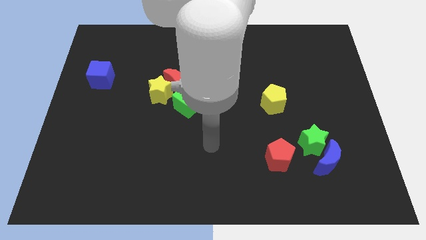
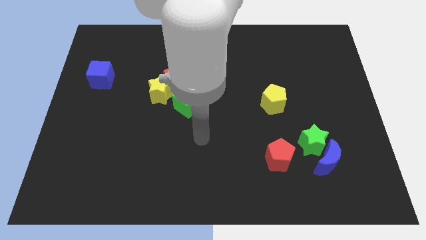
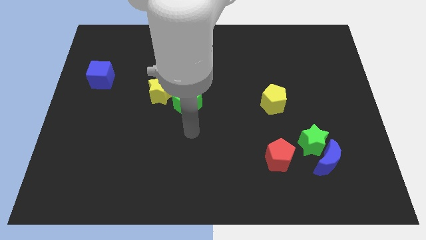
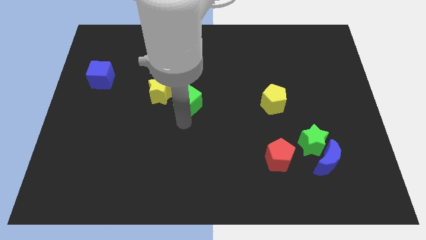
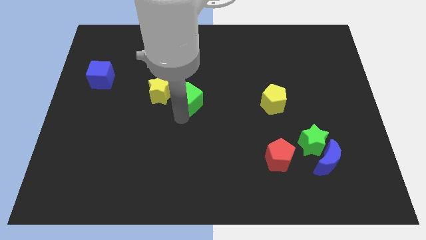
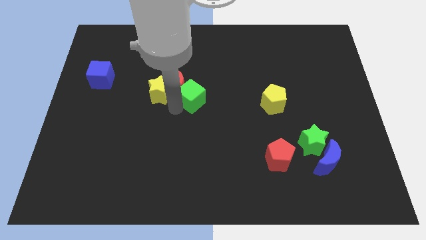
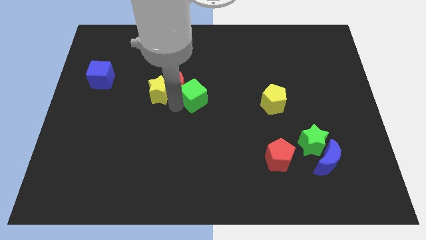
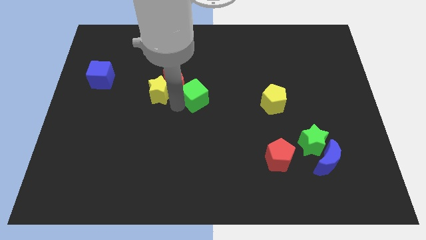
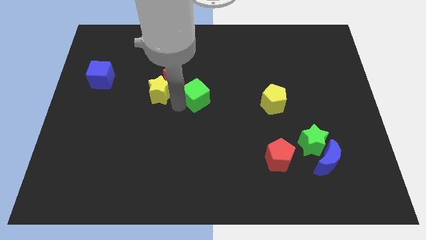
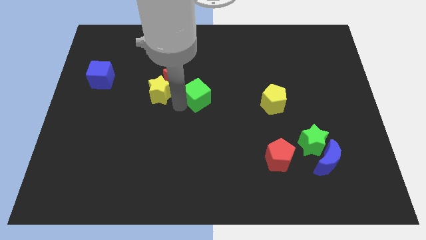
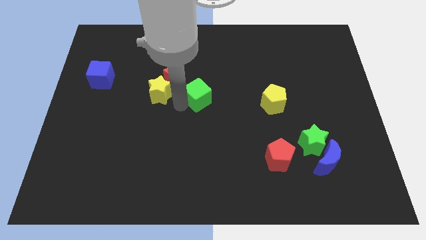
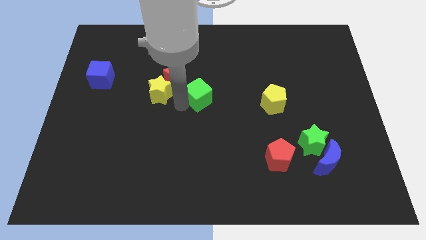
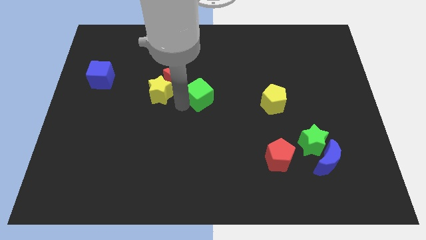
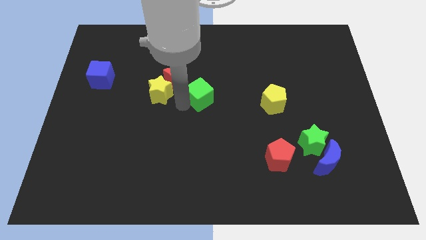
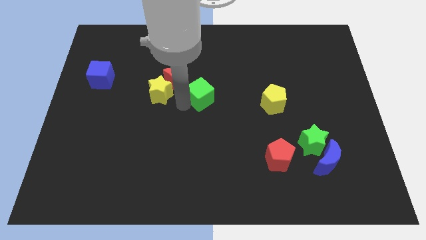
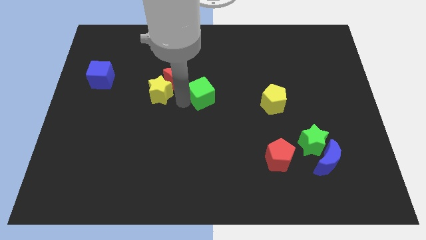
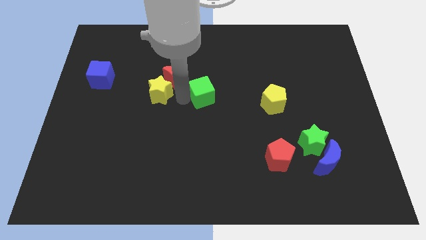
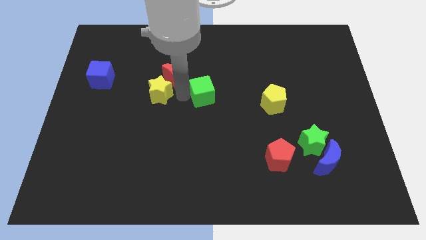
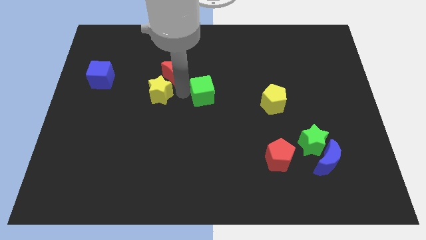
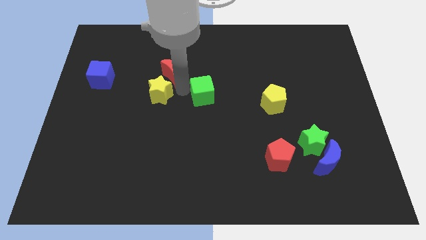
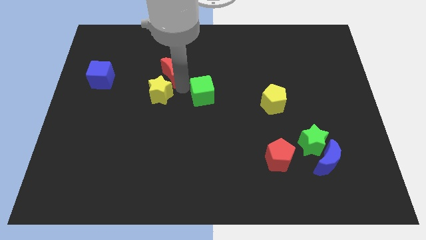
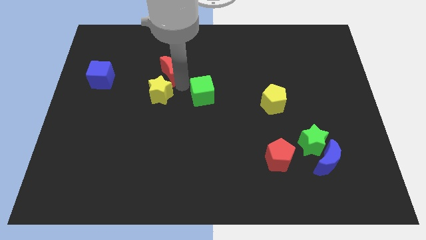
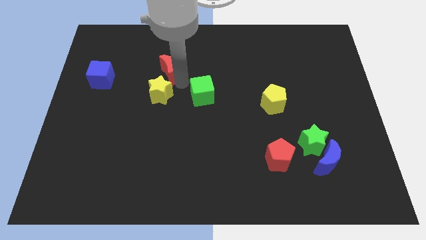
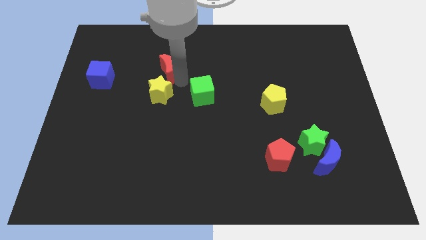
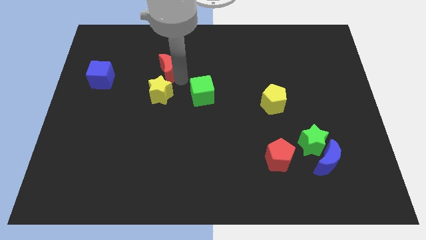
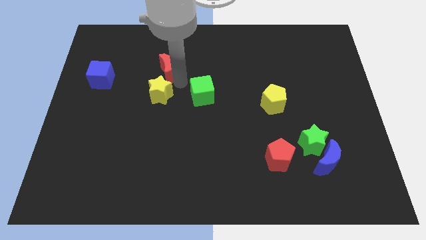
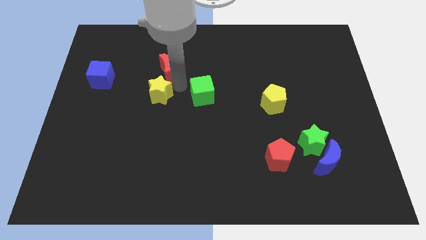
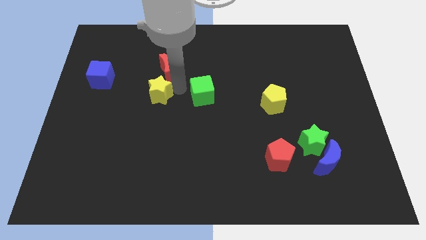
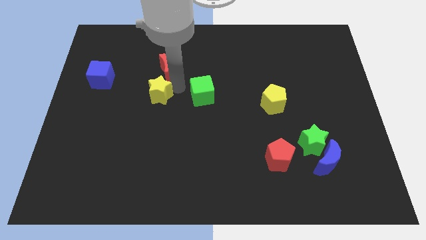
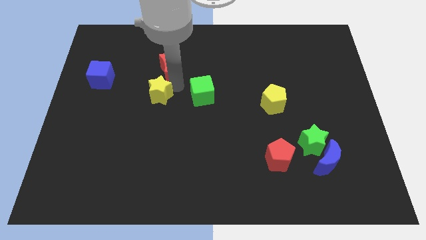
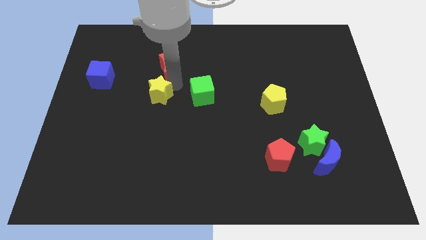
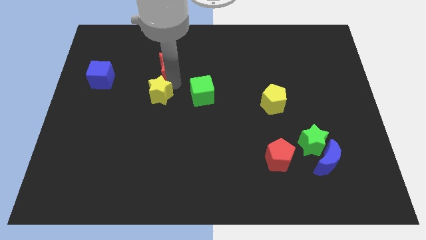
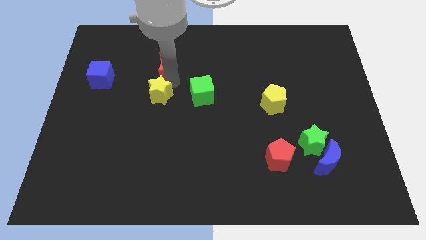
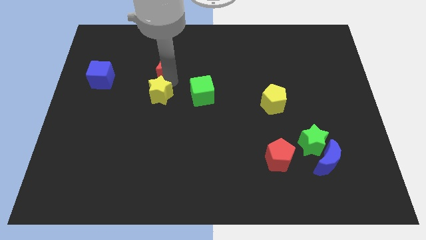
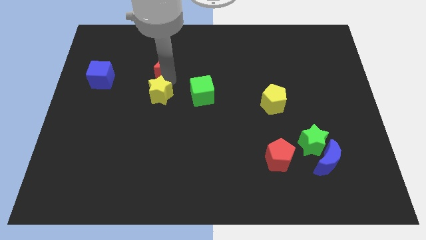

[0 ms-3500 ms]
pull the red moon apart from the yellow star and green cube

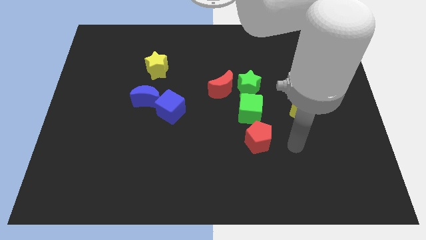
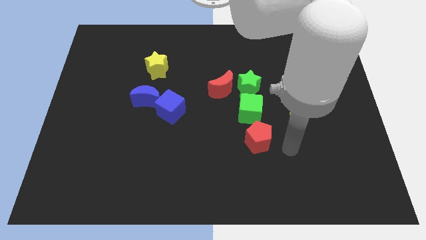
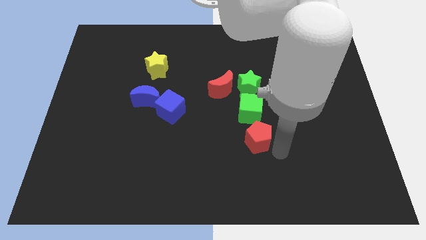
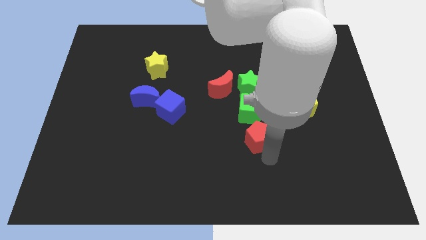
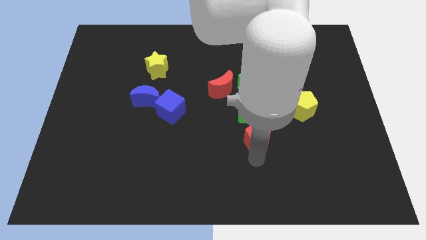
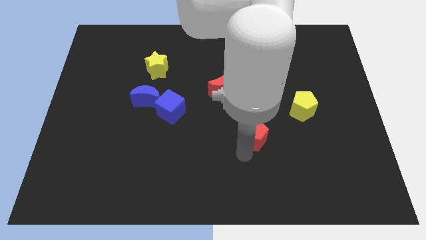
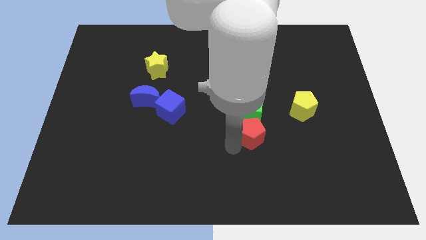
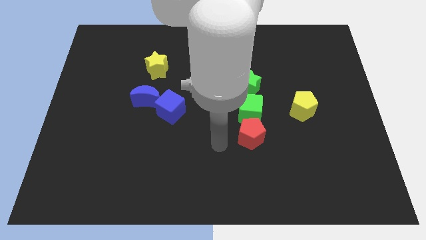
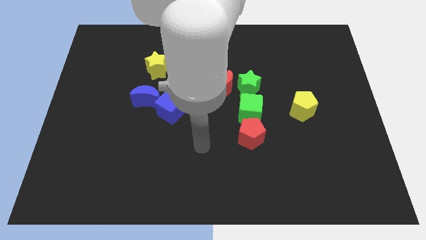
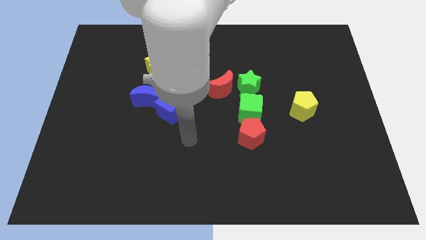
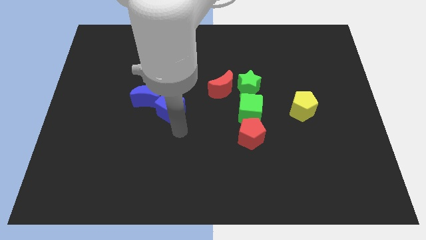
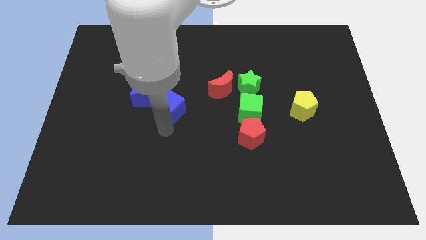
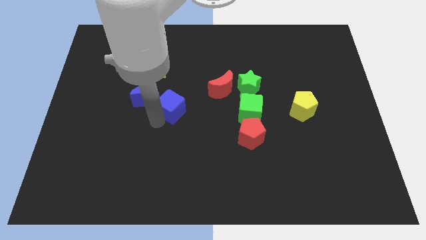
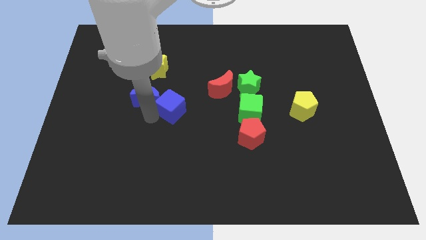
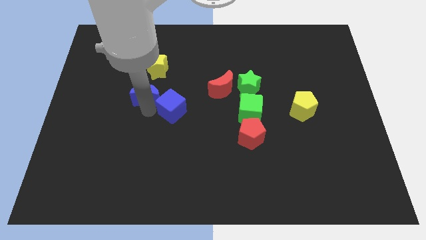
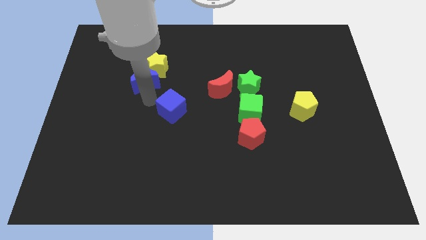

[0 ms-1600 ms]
separate the blue cube from the blue moon

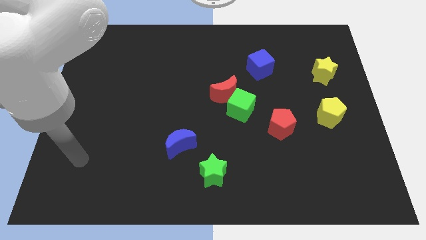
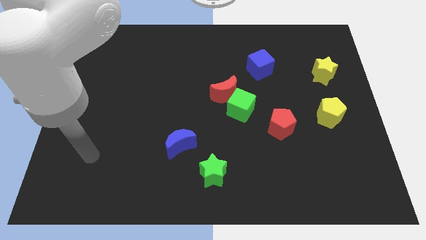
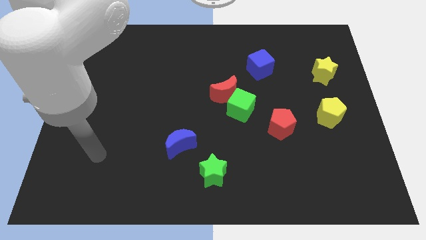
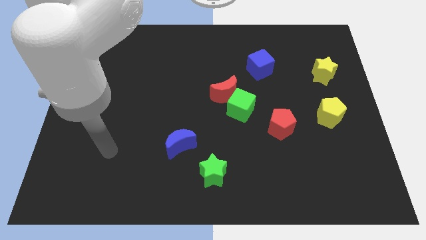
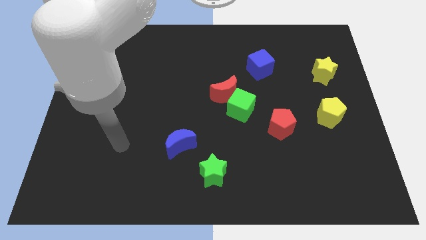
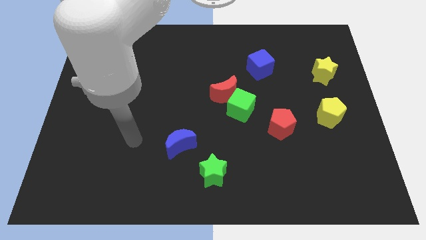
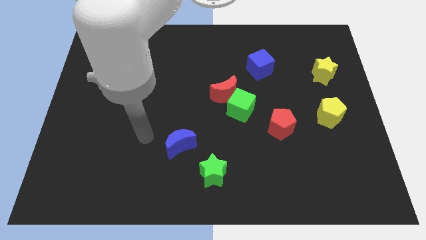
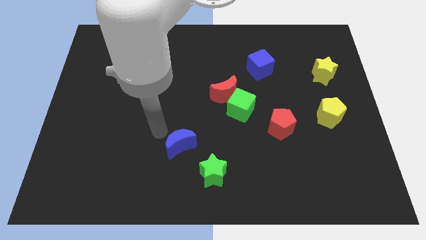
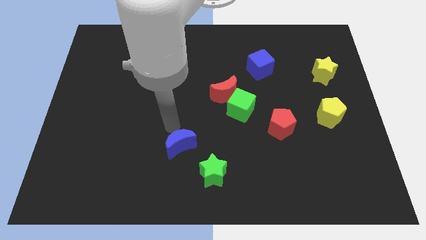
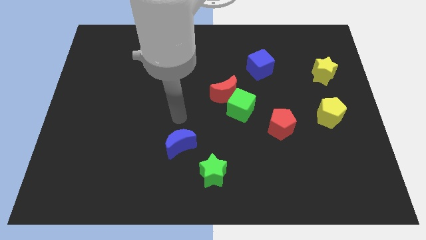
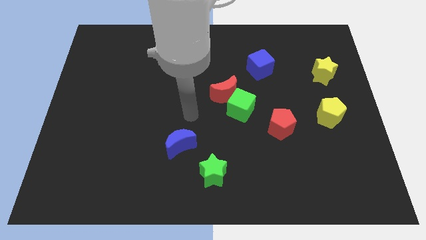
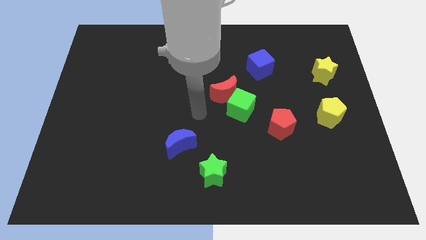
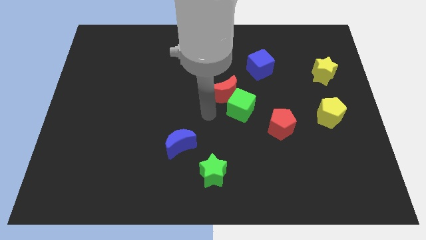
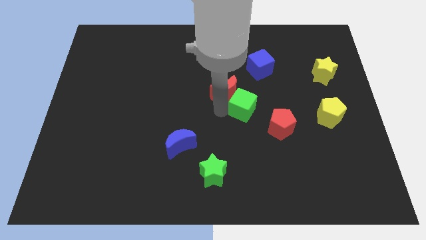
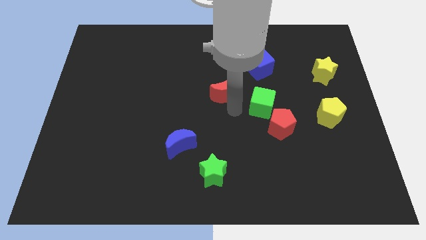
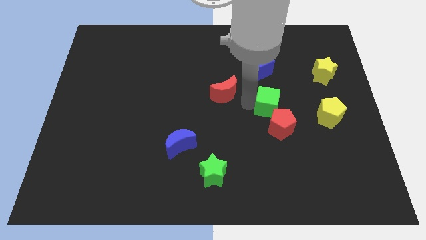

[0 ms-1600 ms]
separate the red moon from the green cube

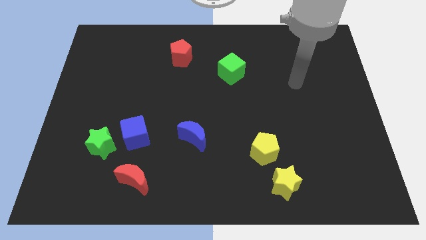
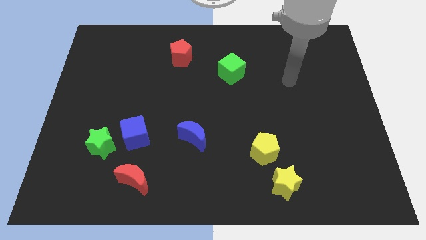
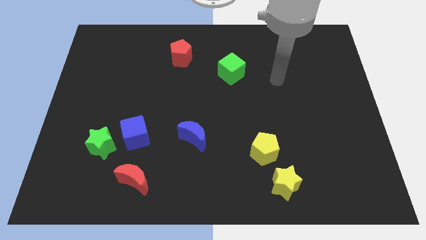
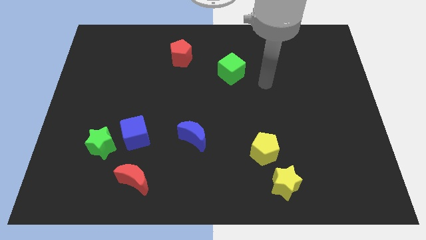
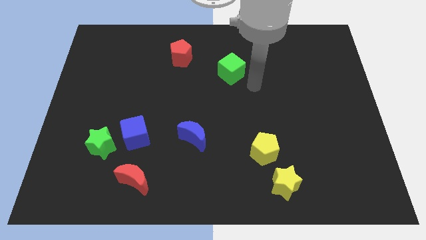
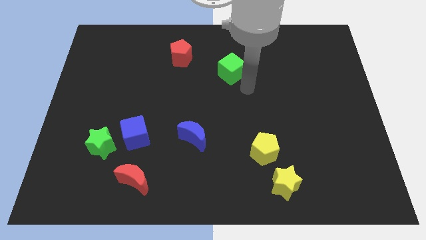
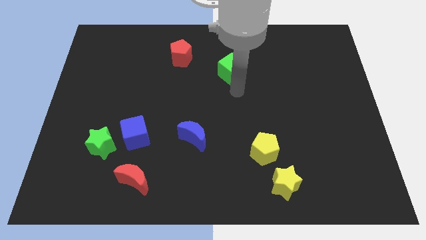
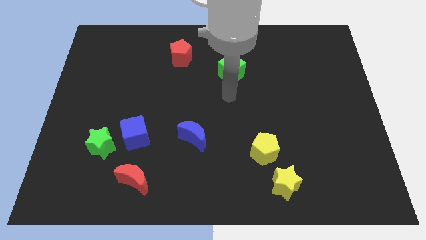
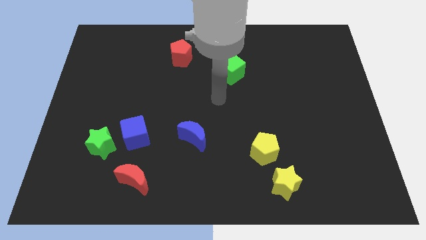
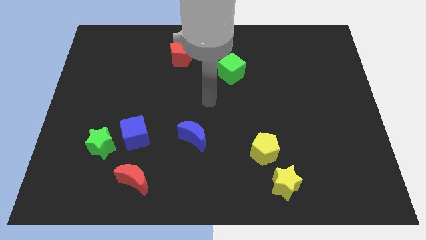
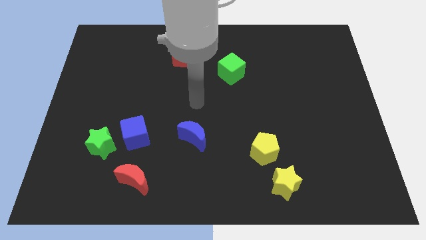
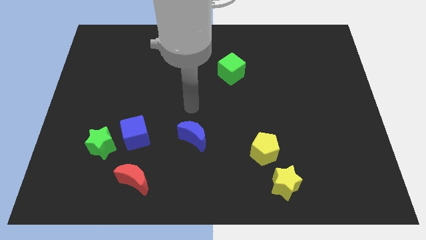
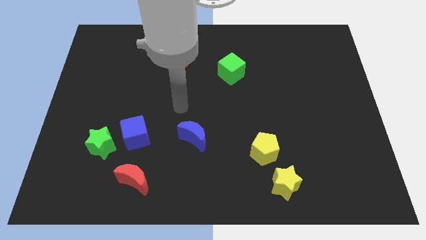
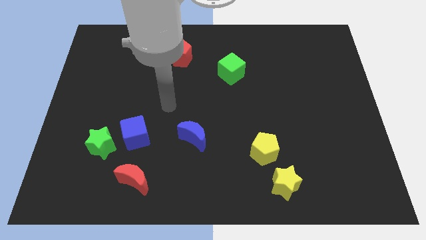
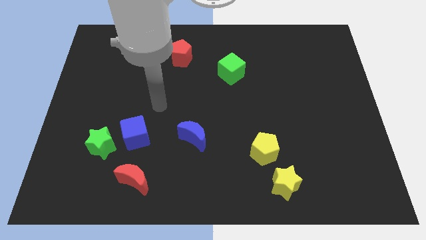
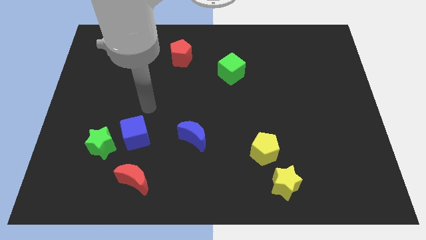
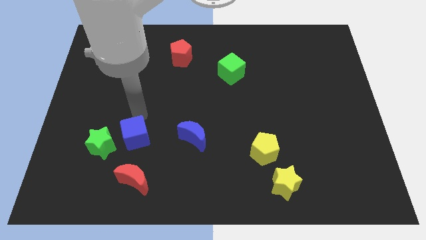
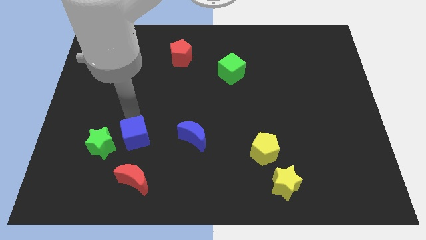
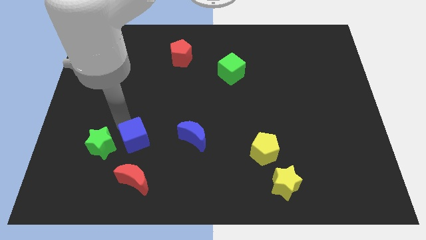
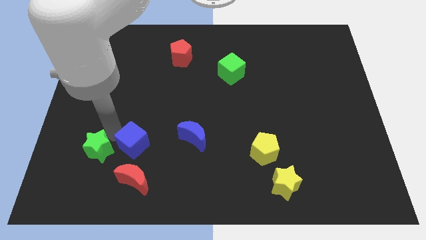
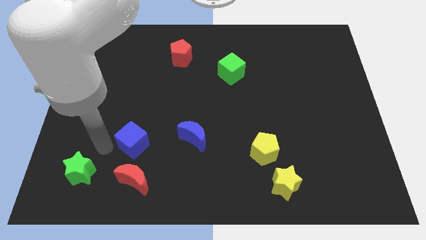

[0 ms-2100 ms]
separate the blue cube from the green star

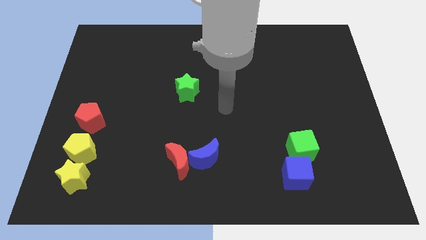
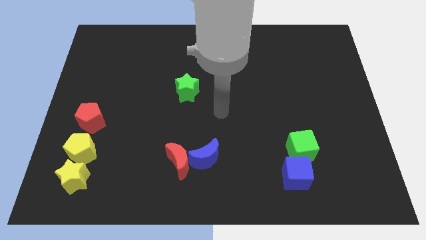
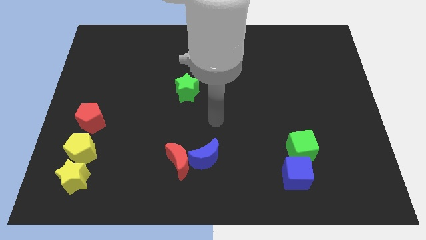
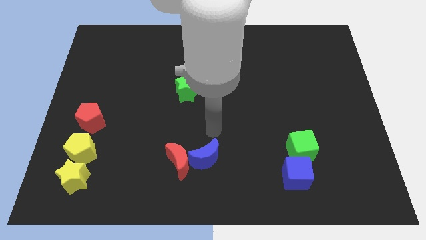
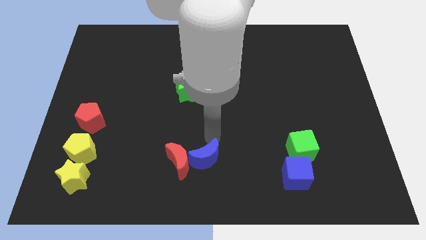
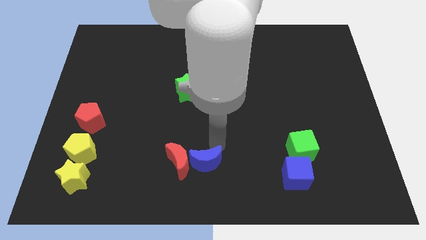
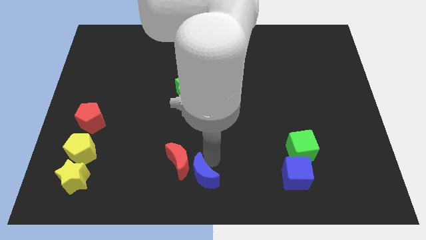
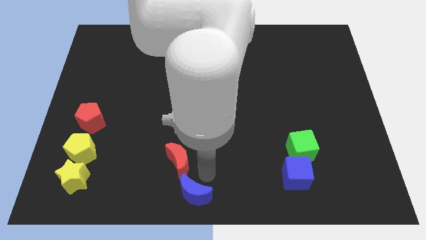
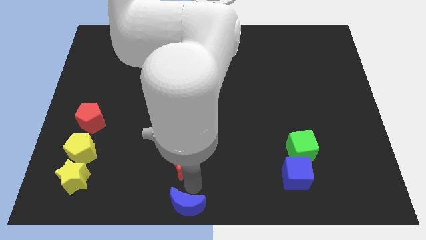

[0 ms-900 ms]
move the red moon away from the blue moon
